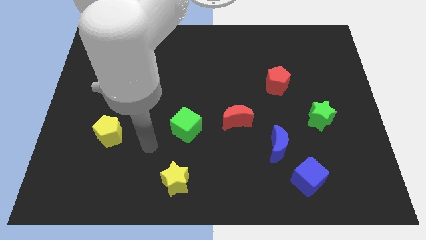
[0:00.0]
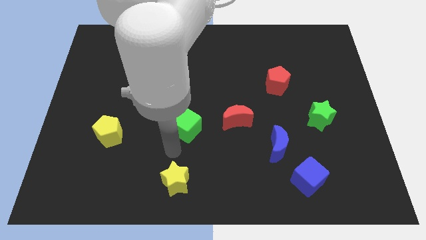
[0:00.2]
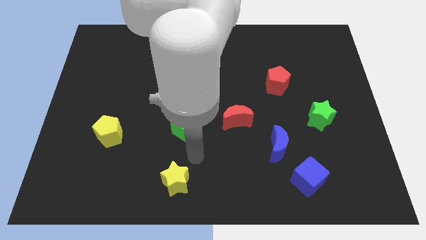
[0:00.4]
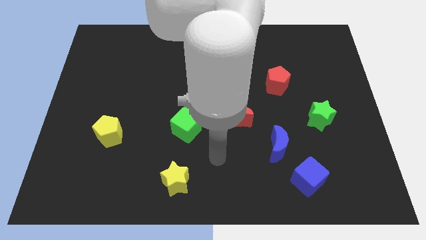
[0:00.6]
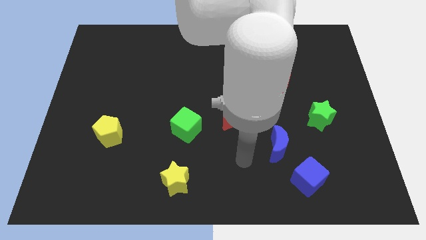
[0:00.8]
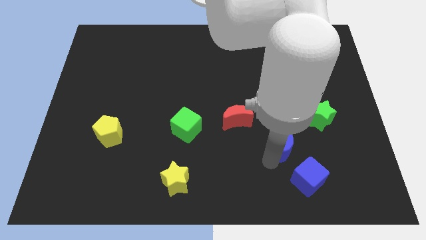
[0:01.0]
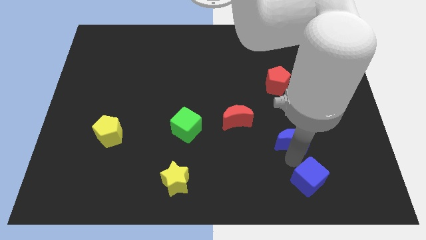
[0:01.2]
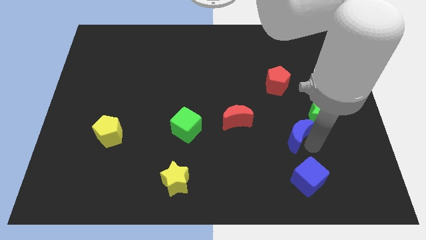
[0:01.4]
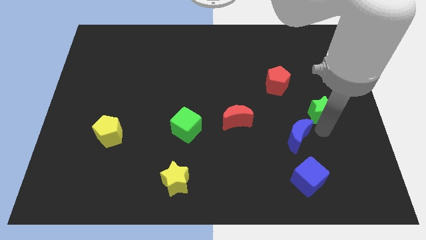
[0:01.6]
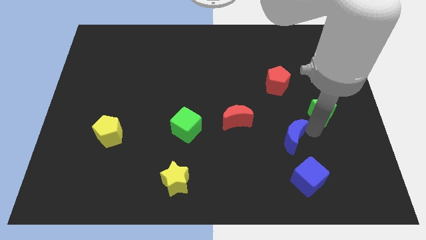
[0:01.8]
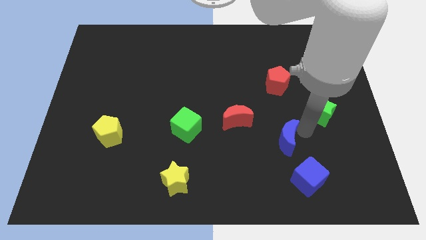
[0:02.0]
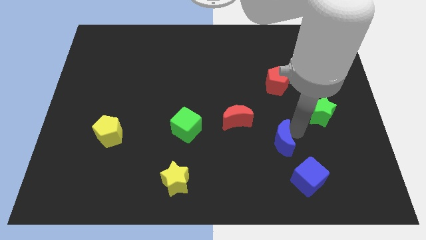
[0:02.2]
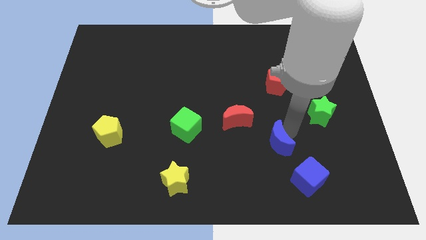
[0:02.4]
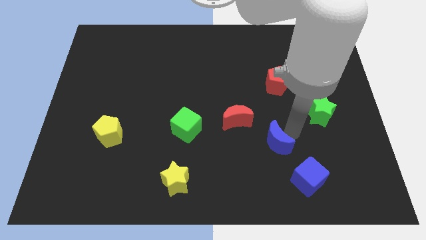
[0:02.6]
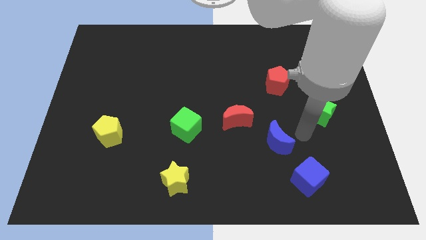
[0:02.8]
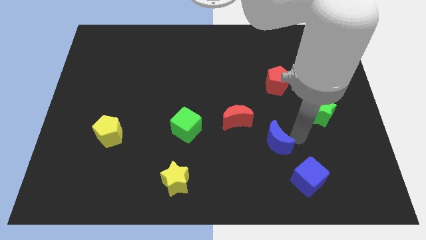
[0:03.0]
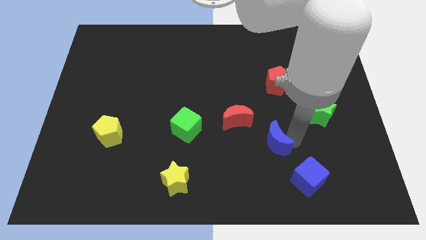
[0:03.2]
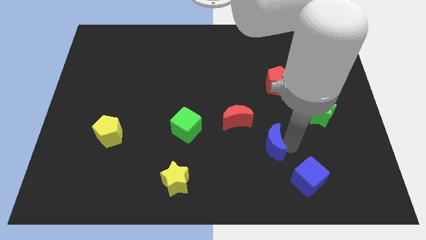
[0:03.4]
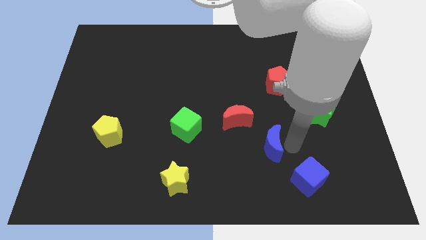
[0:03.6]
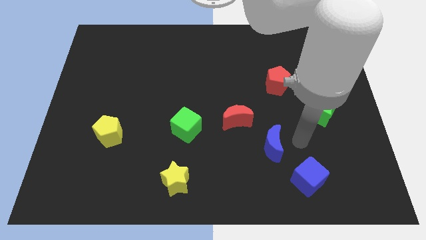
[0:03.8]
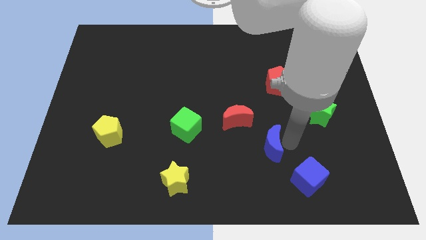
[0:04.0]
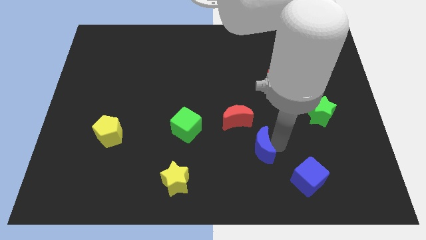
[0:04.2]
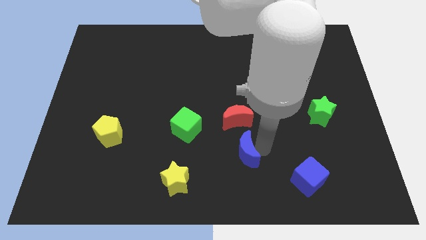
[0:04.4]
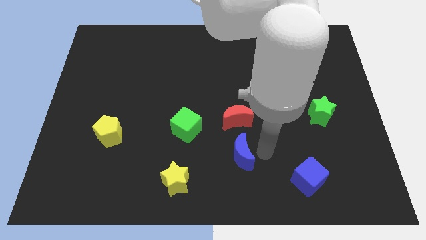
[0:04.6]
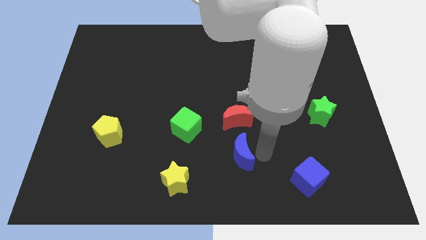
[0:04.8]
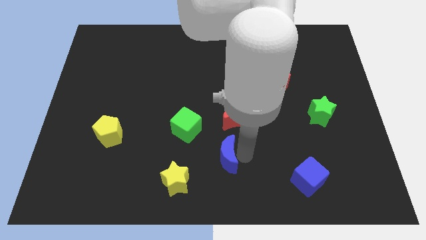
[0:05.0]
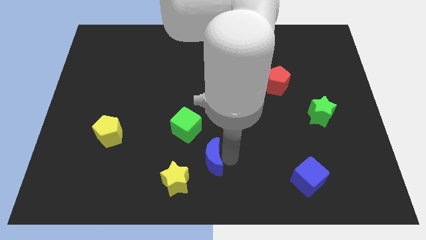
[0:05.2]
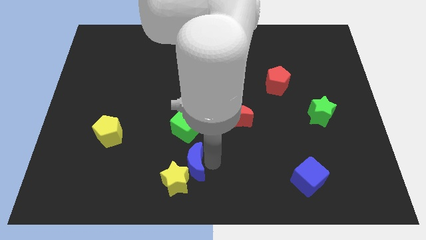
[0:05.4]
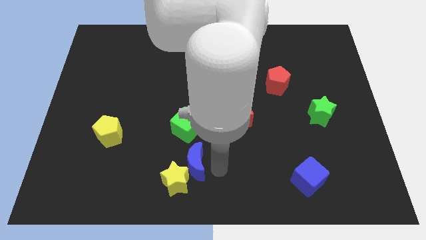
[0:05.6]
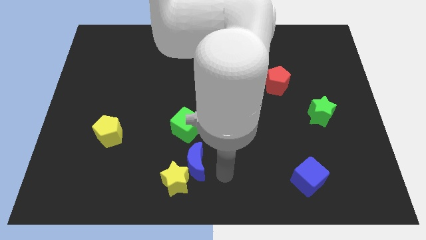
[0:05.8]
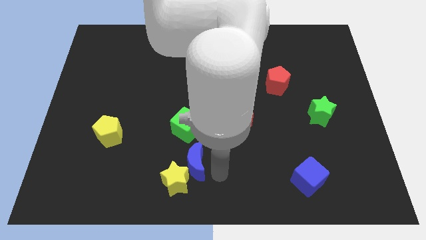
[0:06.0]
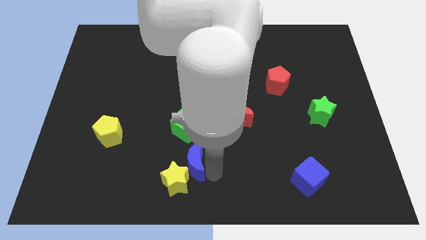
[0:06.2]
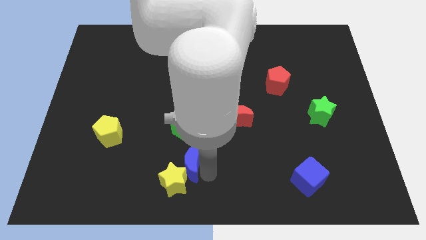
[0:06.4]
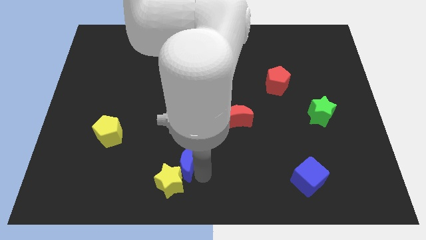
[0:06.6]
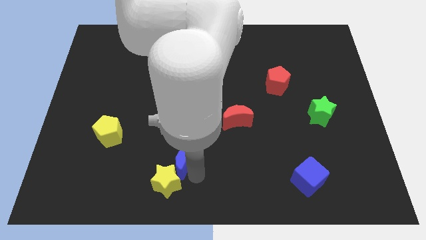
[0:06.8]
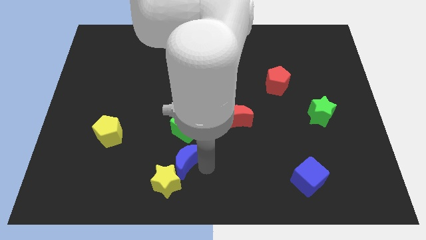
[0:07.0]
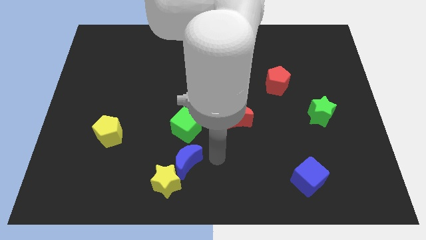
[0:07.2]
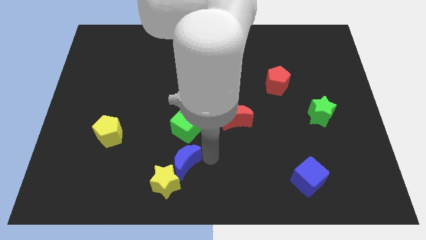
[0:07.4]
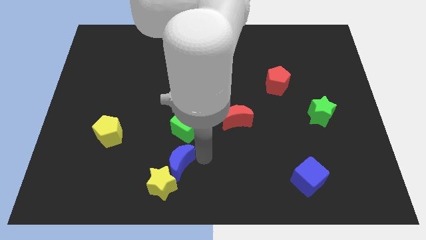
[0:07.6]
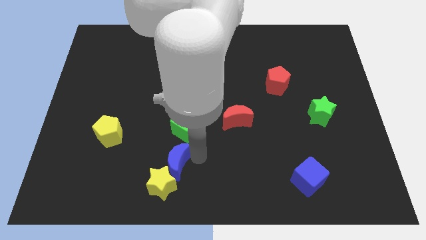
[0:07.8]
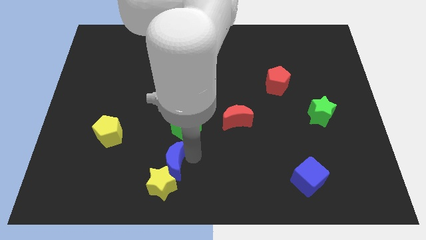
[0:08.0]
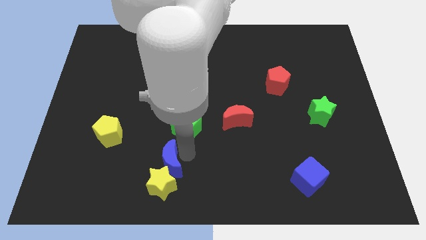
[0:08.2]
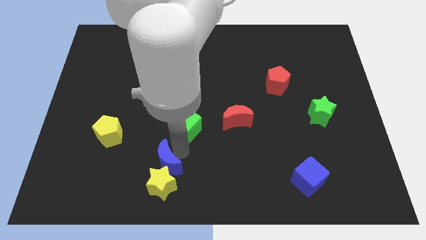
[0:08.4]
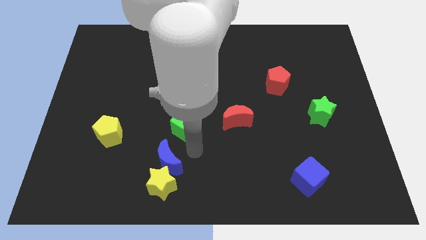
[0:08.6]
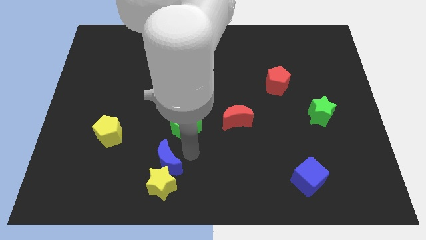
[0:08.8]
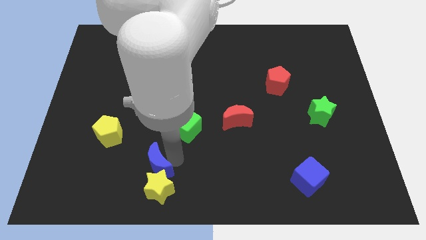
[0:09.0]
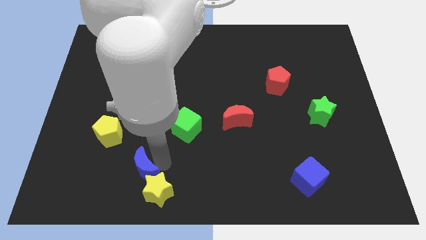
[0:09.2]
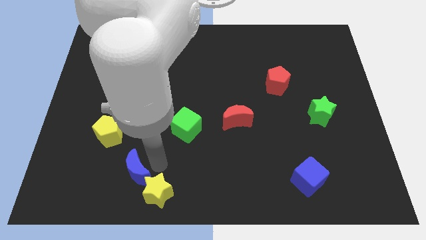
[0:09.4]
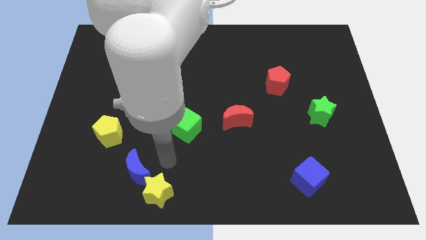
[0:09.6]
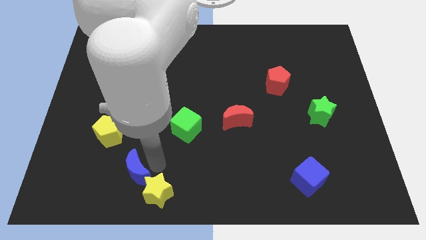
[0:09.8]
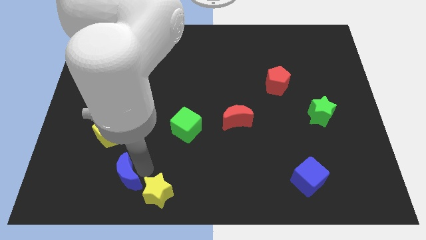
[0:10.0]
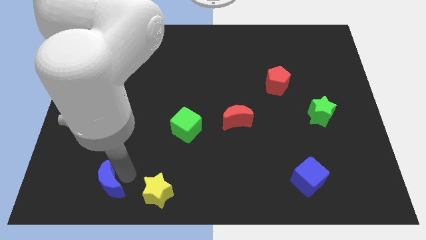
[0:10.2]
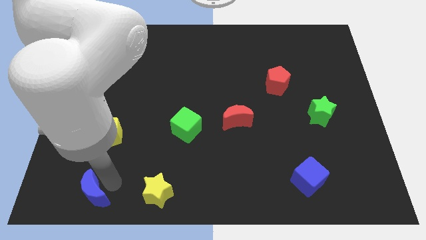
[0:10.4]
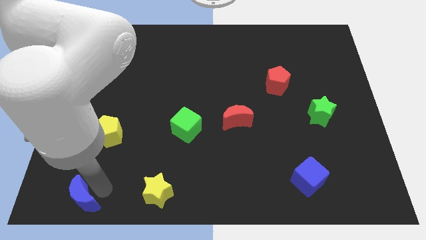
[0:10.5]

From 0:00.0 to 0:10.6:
push the blue moon to the bottom left of the board
